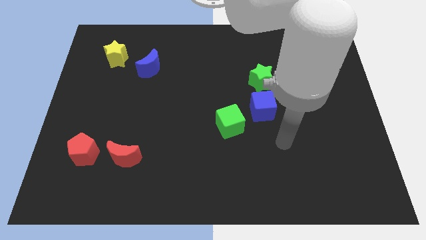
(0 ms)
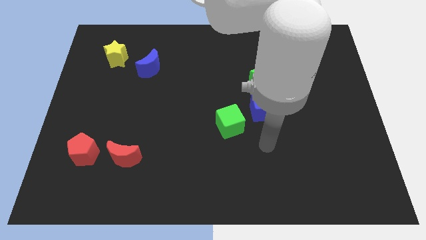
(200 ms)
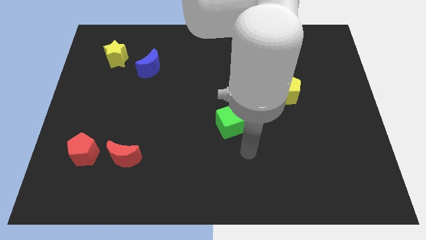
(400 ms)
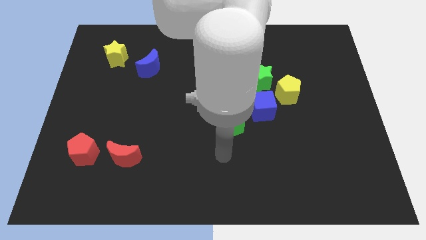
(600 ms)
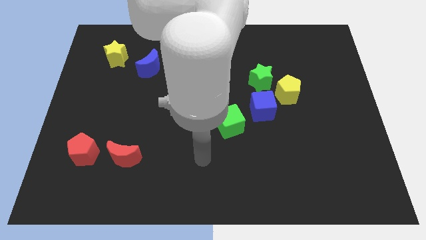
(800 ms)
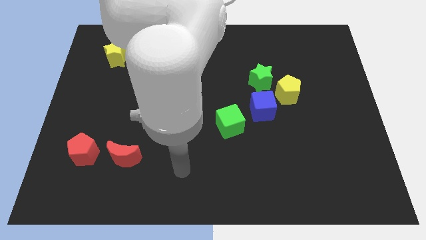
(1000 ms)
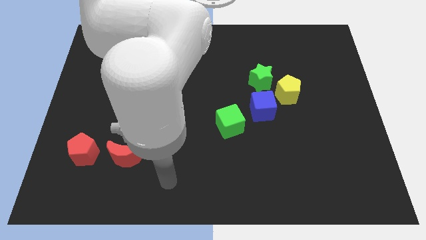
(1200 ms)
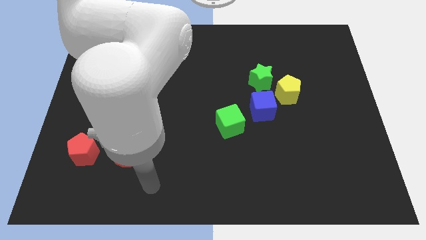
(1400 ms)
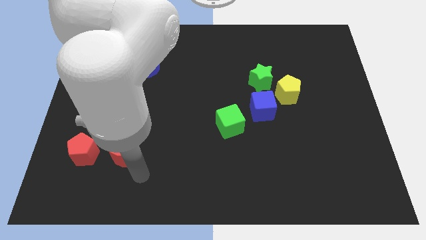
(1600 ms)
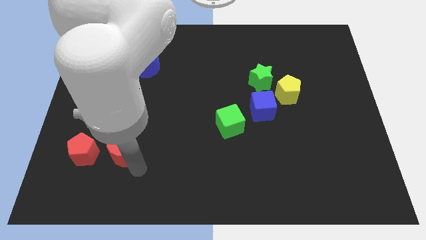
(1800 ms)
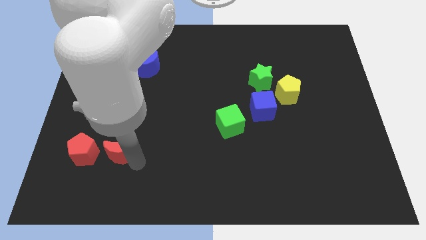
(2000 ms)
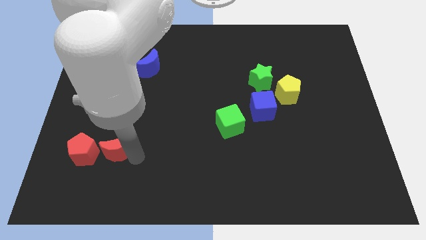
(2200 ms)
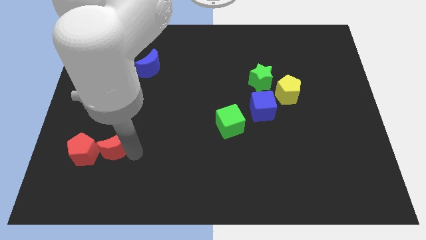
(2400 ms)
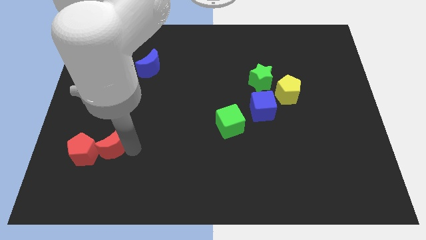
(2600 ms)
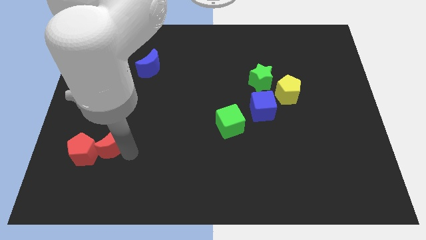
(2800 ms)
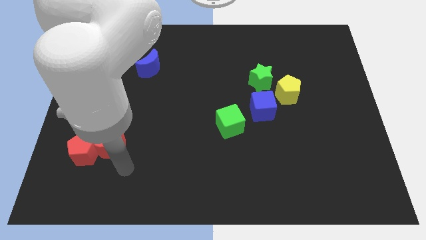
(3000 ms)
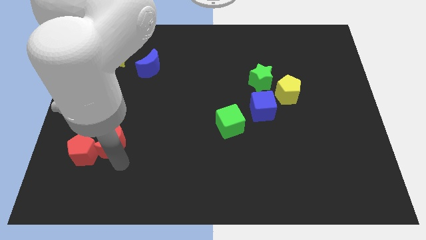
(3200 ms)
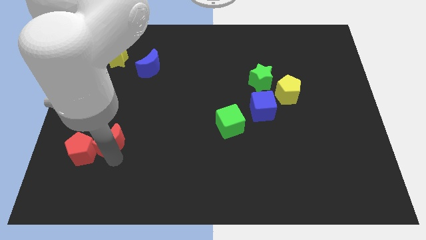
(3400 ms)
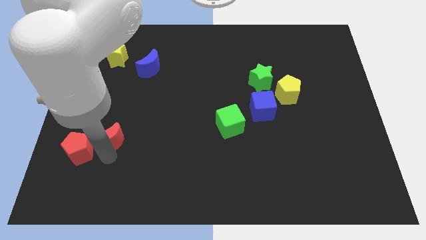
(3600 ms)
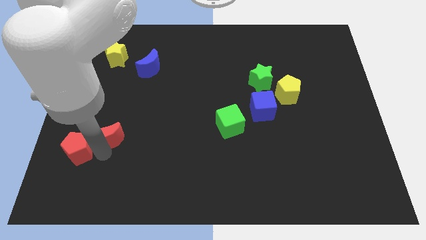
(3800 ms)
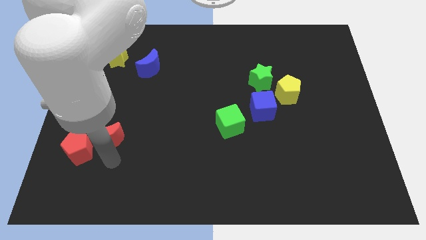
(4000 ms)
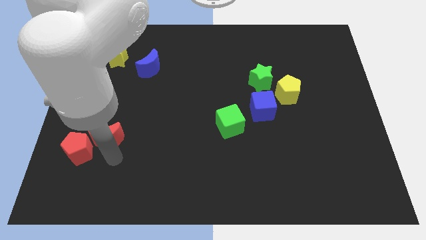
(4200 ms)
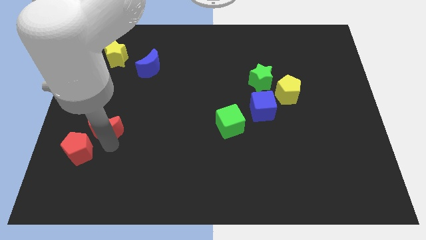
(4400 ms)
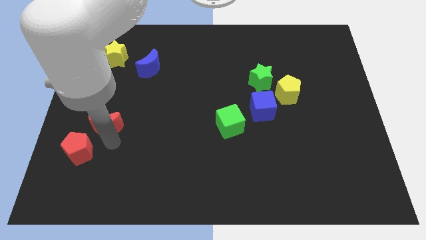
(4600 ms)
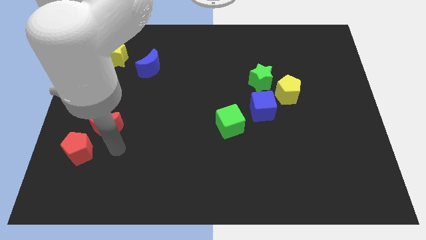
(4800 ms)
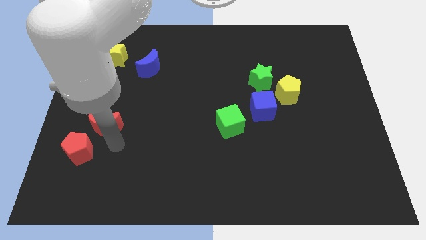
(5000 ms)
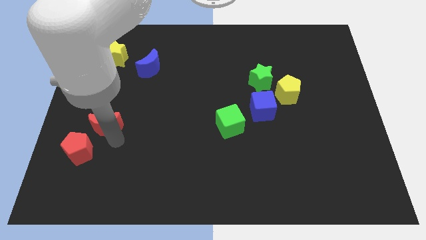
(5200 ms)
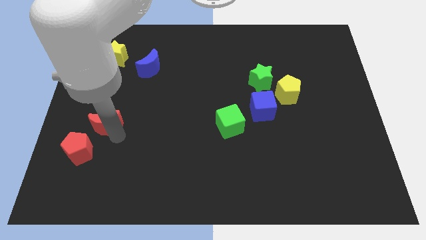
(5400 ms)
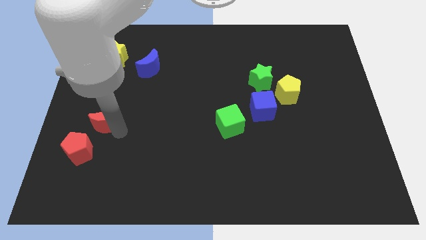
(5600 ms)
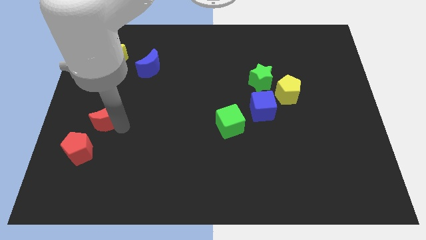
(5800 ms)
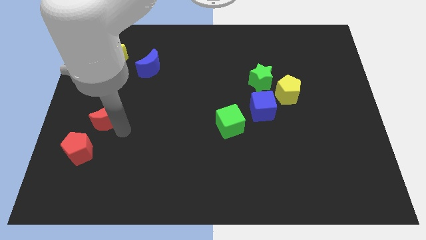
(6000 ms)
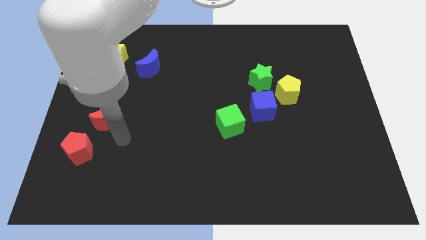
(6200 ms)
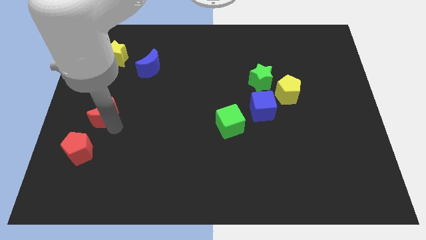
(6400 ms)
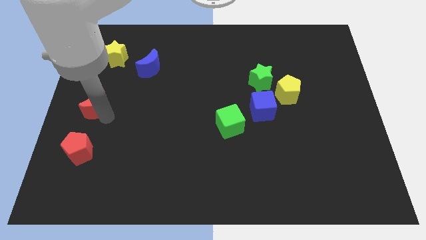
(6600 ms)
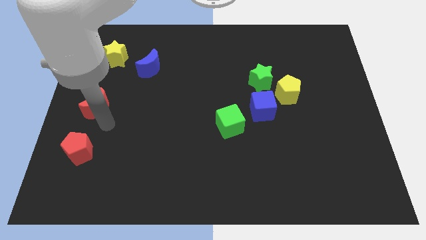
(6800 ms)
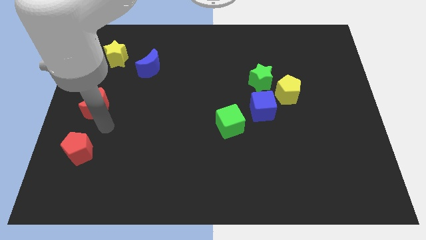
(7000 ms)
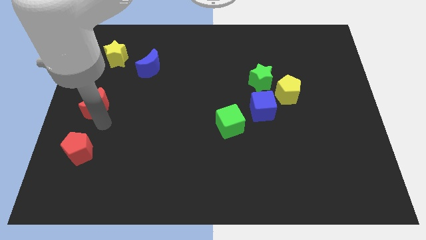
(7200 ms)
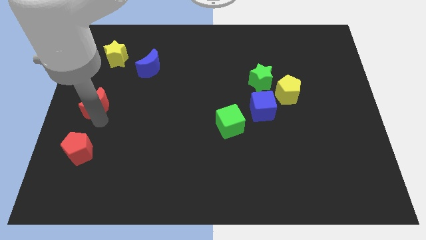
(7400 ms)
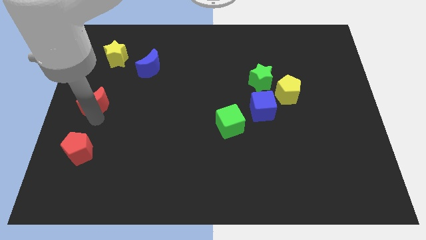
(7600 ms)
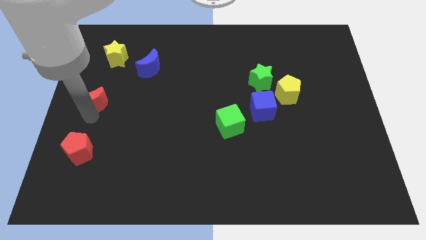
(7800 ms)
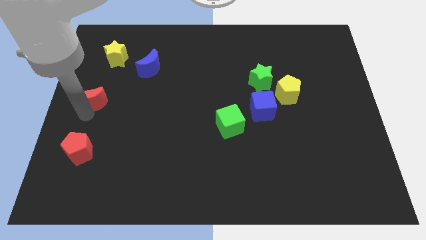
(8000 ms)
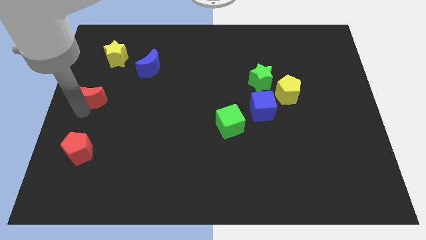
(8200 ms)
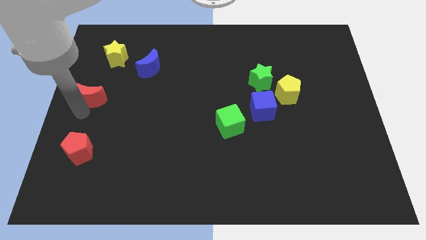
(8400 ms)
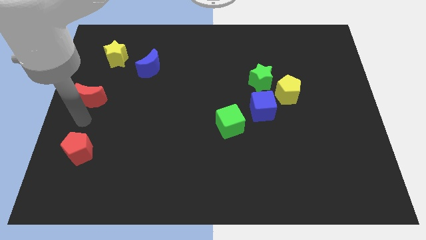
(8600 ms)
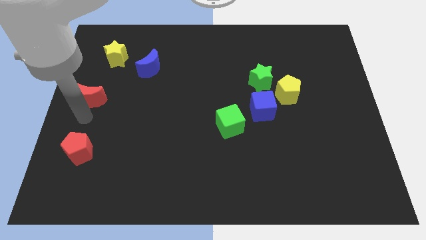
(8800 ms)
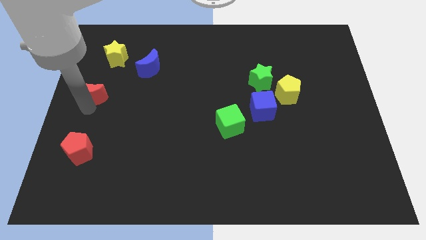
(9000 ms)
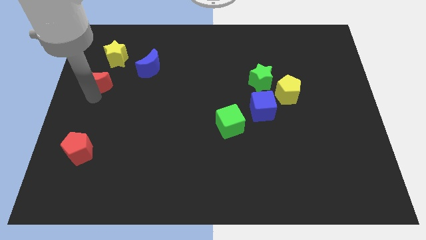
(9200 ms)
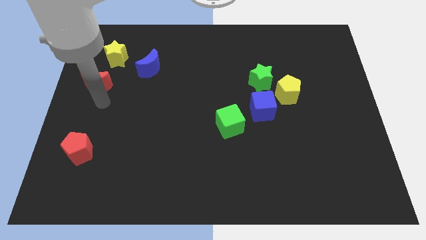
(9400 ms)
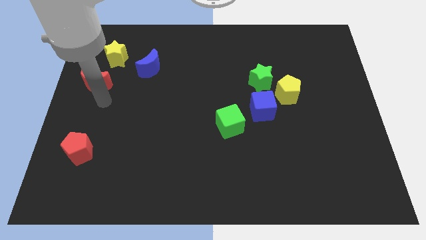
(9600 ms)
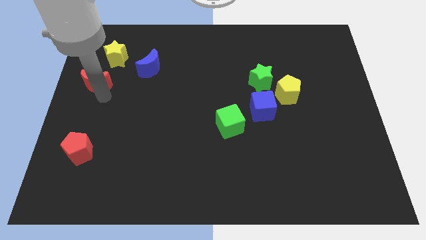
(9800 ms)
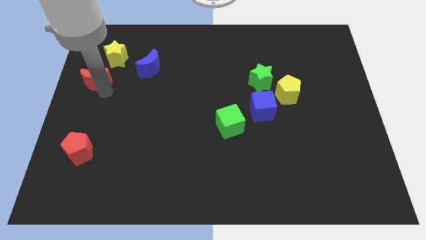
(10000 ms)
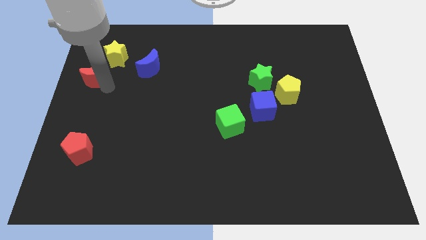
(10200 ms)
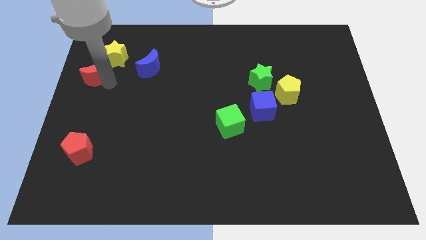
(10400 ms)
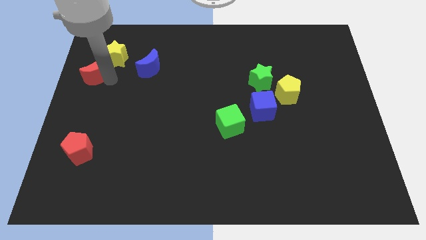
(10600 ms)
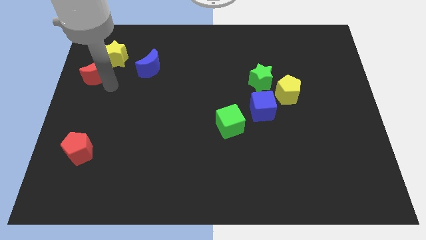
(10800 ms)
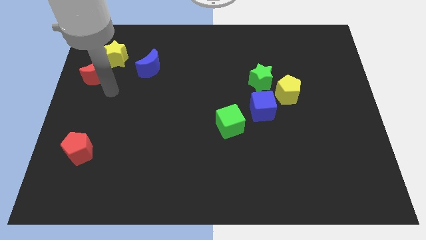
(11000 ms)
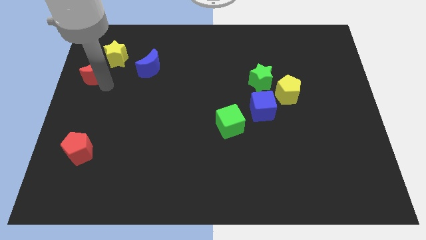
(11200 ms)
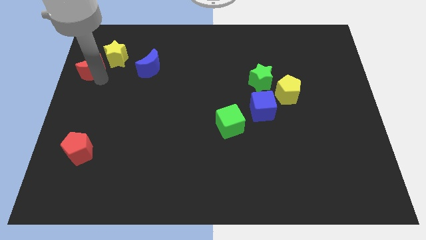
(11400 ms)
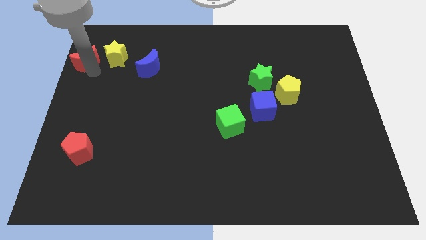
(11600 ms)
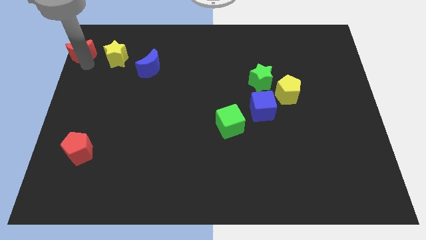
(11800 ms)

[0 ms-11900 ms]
slide the red moon to the top left
